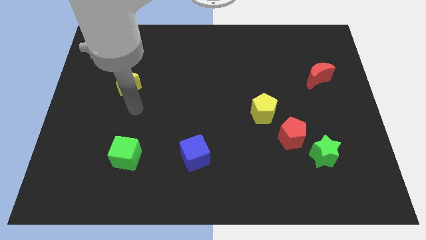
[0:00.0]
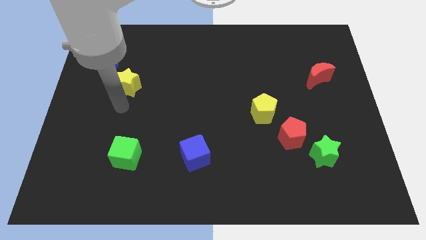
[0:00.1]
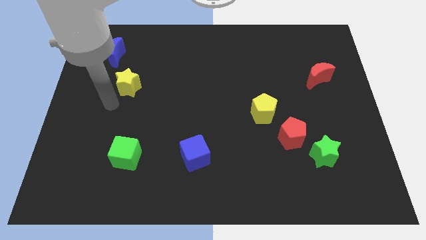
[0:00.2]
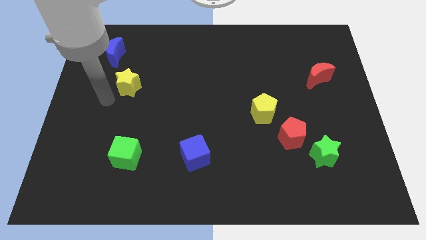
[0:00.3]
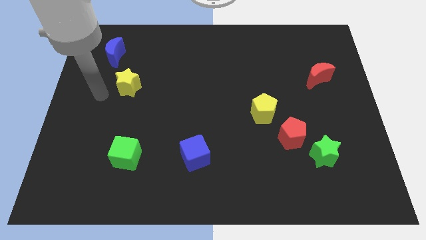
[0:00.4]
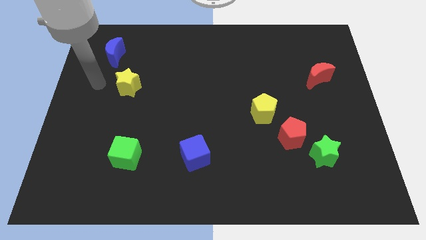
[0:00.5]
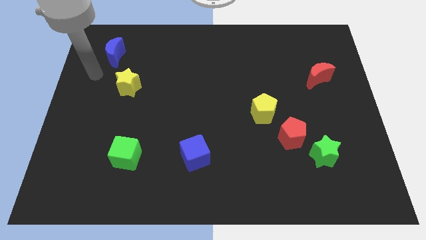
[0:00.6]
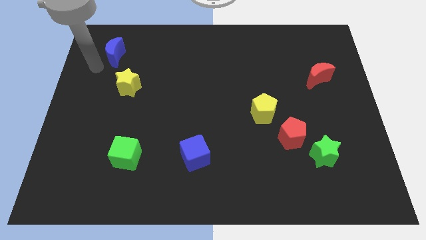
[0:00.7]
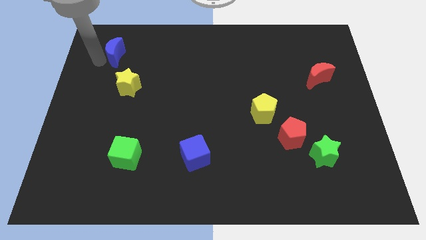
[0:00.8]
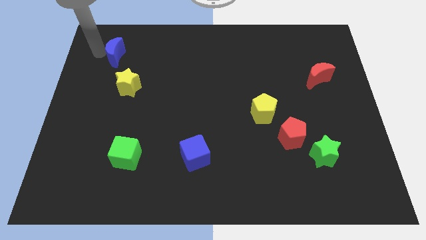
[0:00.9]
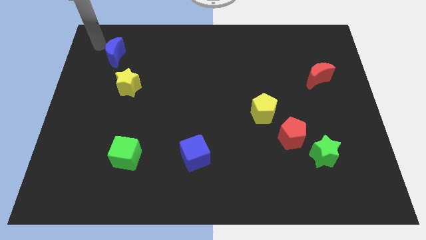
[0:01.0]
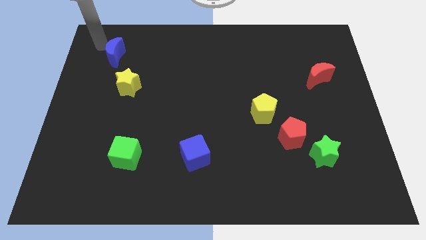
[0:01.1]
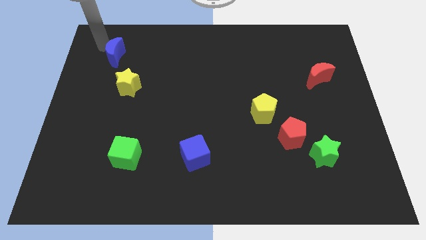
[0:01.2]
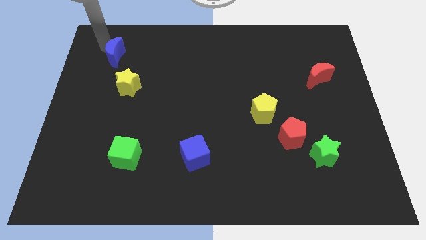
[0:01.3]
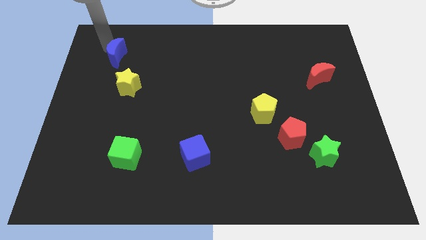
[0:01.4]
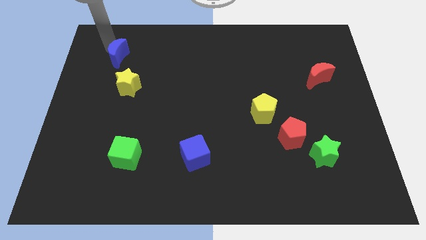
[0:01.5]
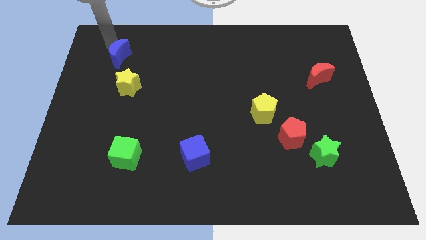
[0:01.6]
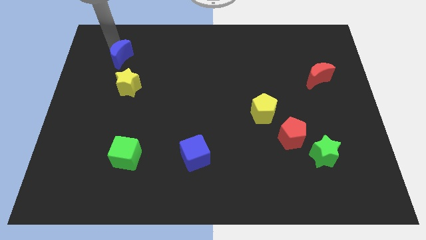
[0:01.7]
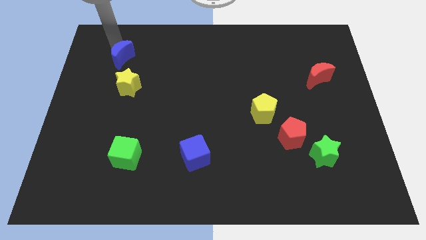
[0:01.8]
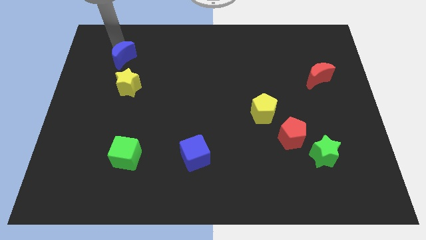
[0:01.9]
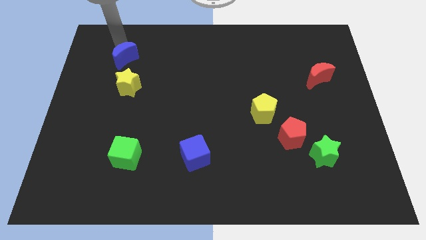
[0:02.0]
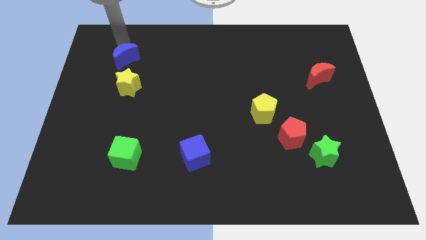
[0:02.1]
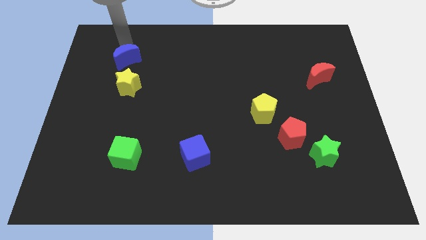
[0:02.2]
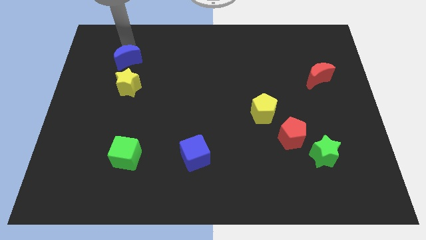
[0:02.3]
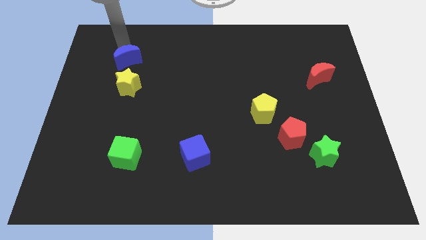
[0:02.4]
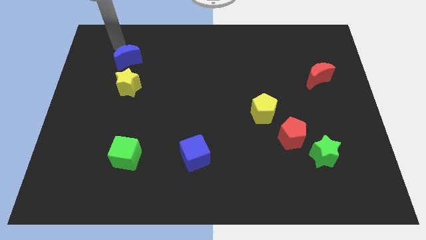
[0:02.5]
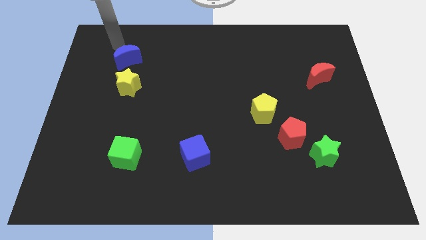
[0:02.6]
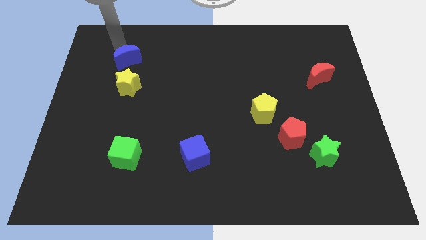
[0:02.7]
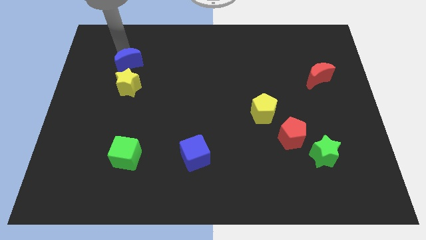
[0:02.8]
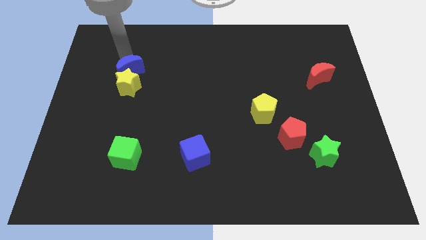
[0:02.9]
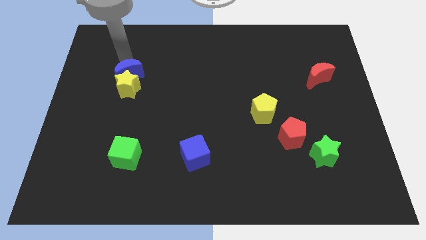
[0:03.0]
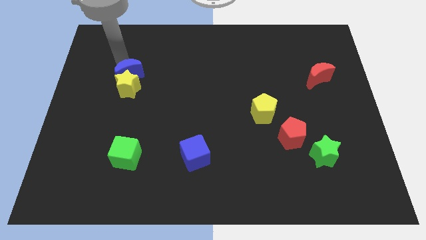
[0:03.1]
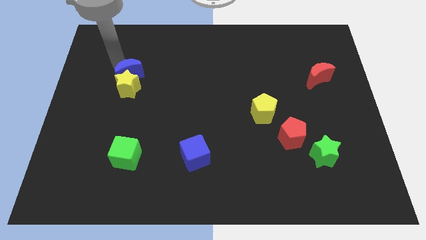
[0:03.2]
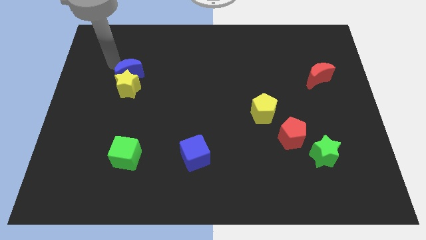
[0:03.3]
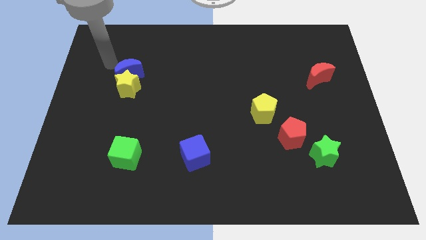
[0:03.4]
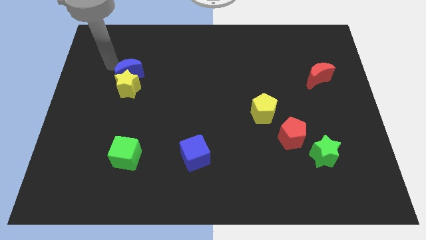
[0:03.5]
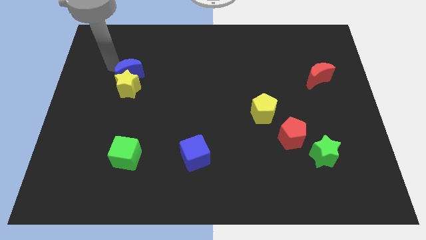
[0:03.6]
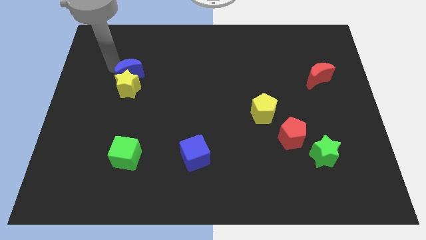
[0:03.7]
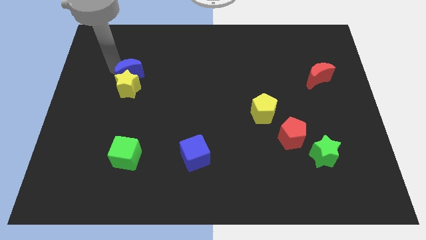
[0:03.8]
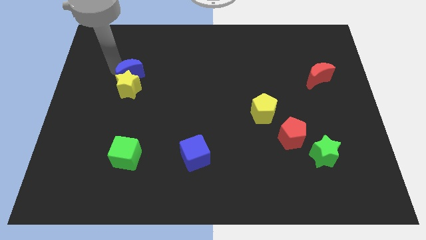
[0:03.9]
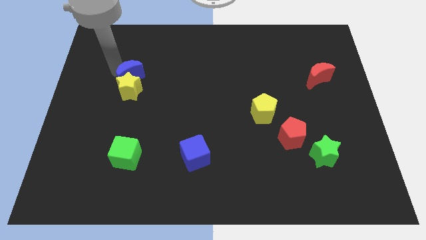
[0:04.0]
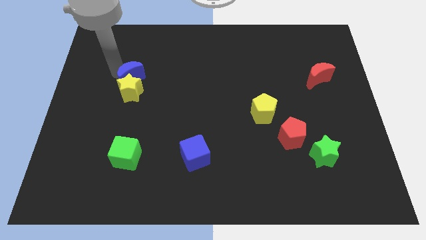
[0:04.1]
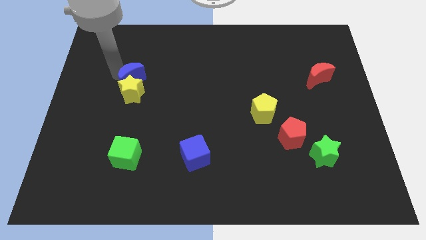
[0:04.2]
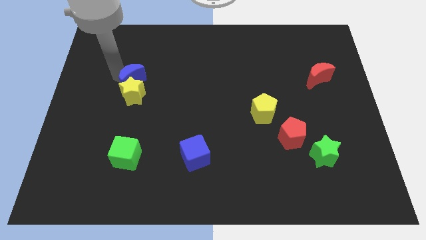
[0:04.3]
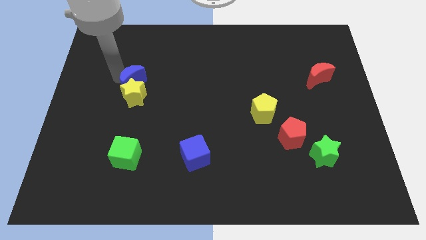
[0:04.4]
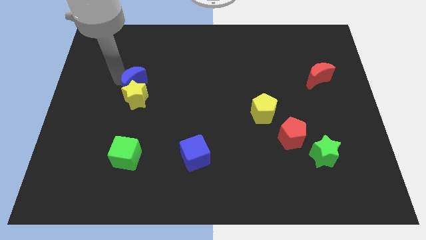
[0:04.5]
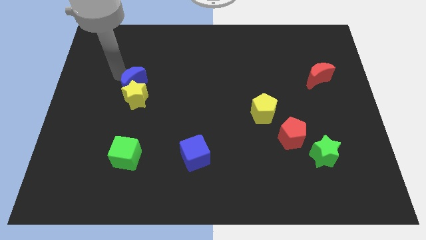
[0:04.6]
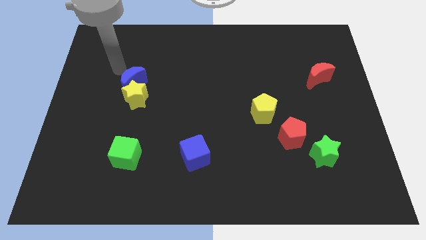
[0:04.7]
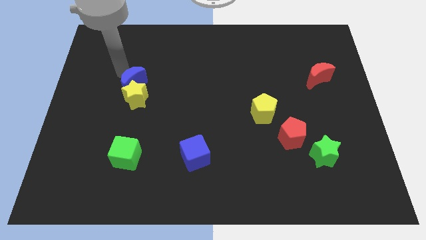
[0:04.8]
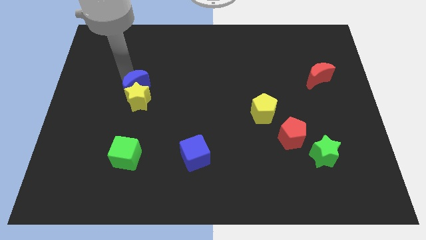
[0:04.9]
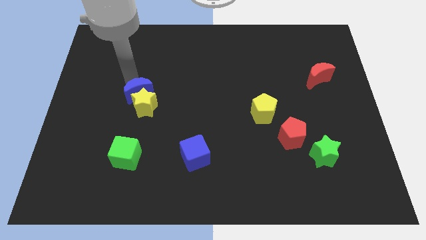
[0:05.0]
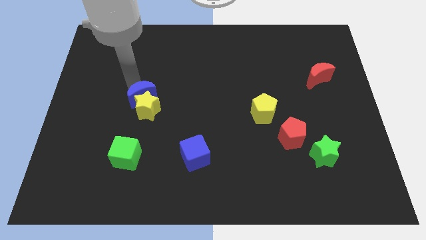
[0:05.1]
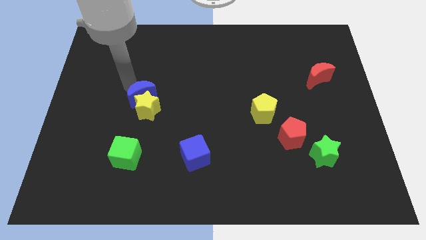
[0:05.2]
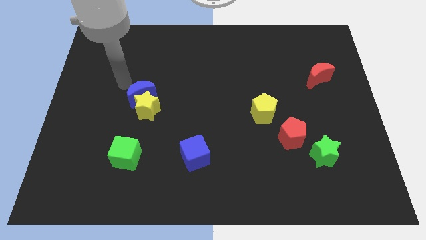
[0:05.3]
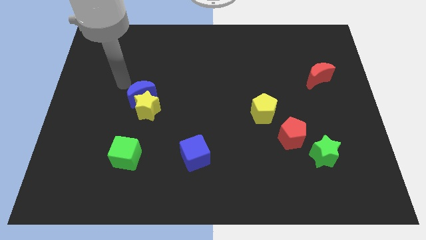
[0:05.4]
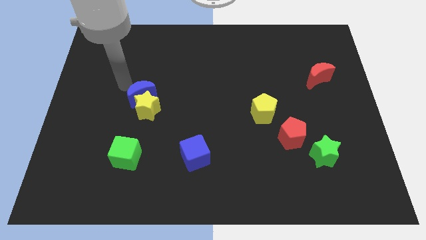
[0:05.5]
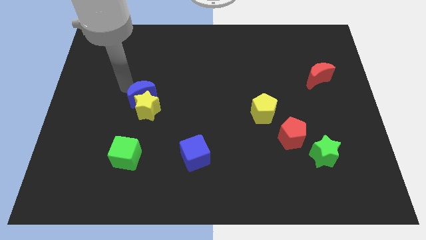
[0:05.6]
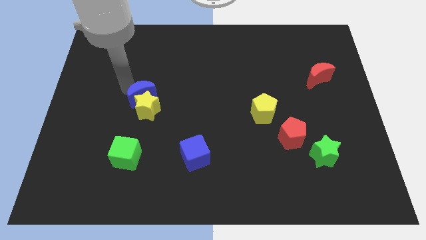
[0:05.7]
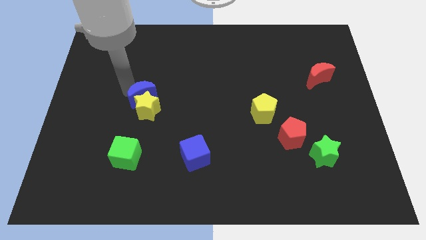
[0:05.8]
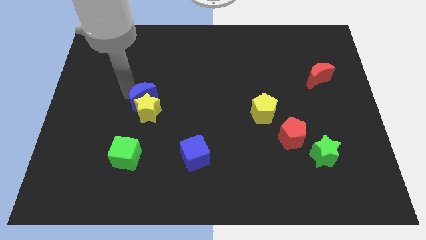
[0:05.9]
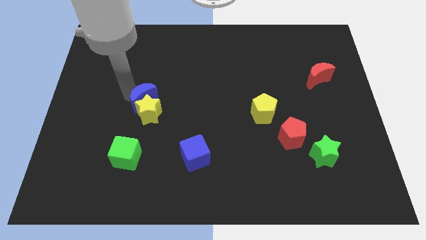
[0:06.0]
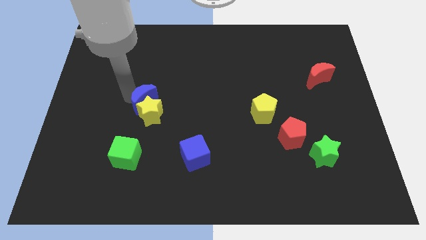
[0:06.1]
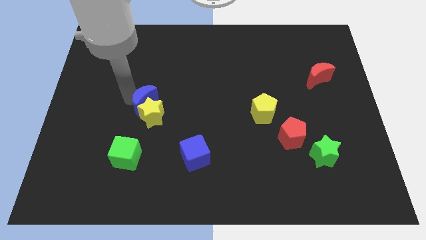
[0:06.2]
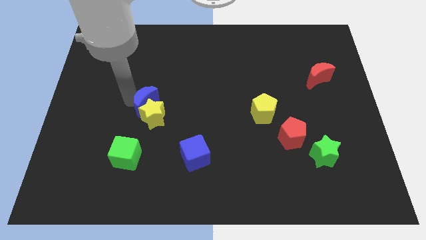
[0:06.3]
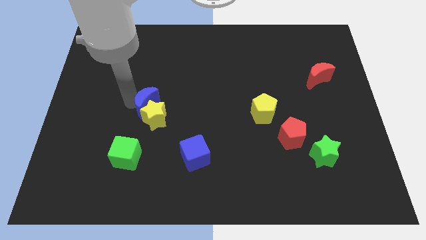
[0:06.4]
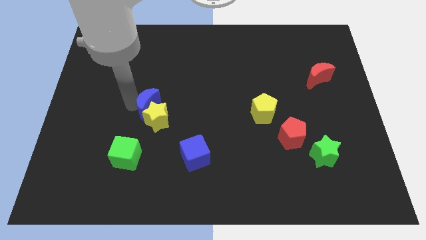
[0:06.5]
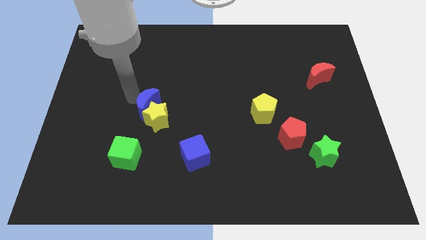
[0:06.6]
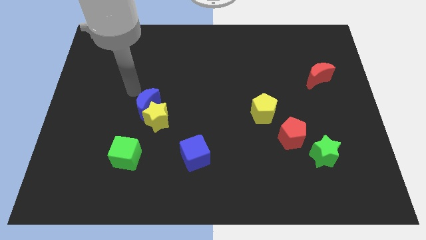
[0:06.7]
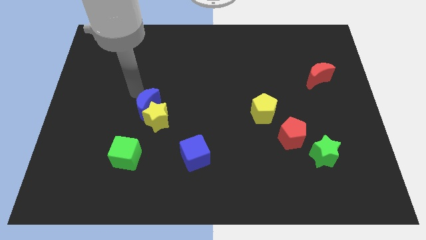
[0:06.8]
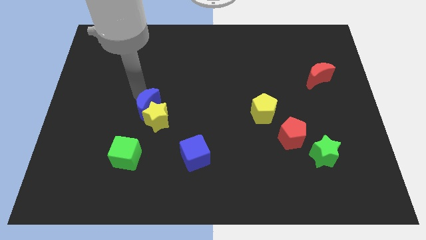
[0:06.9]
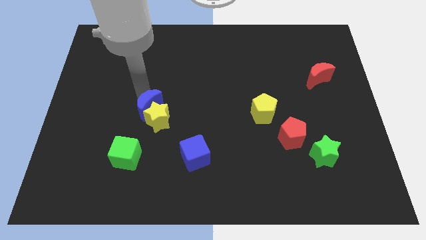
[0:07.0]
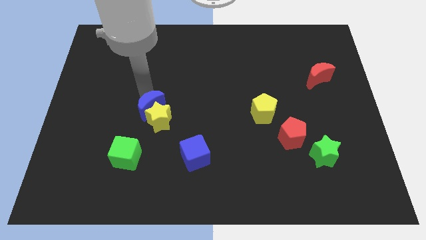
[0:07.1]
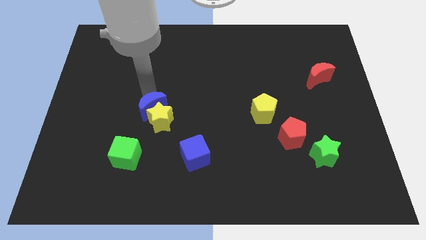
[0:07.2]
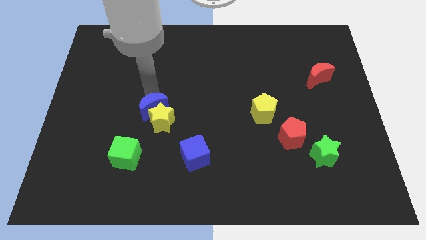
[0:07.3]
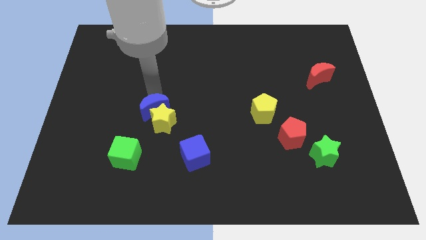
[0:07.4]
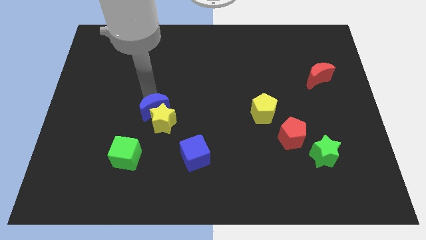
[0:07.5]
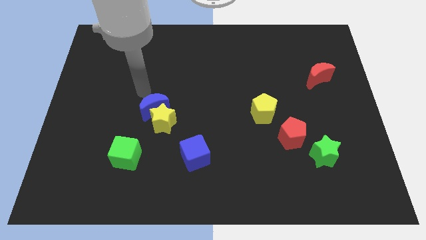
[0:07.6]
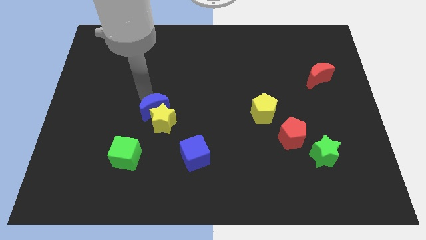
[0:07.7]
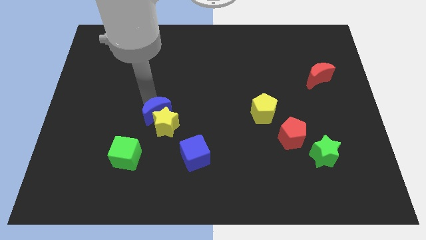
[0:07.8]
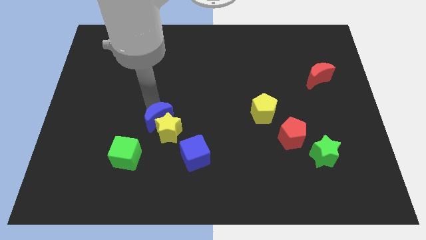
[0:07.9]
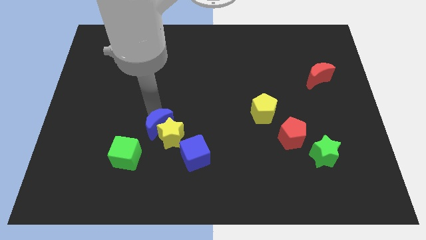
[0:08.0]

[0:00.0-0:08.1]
put the blue moon diagonally up and to the left of the blue cube
